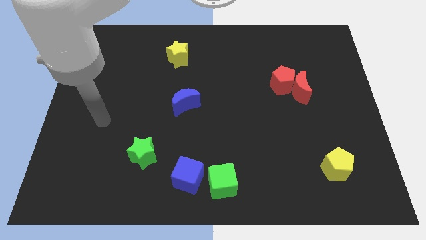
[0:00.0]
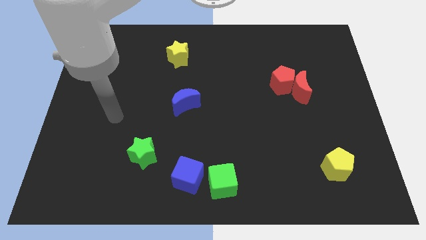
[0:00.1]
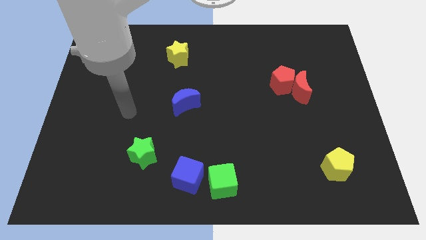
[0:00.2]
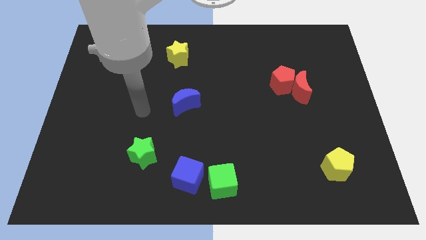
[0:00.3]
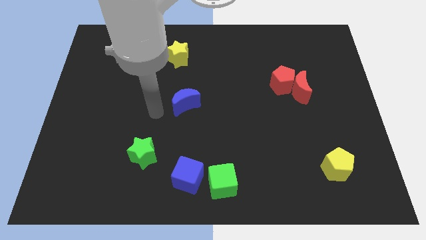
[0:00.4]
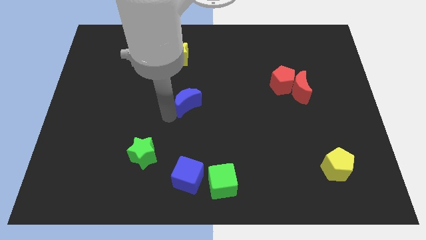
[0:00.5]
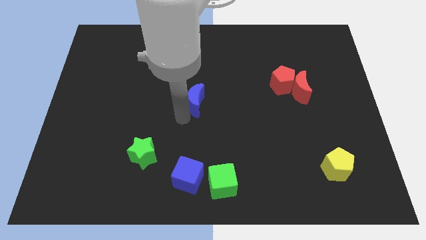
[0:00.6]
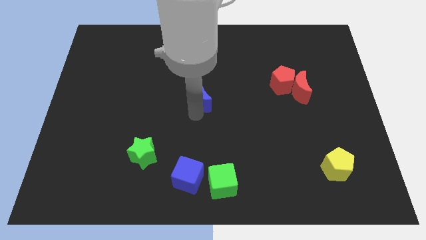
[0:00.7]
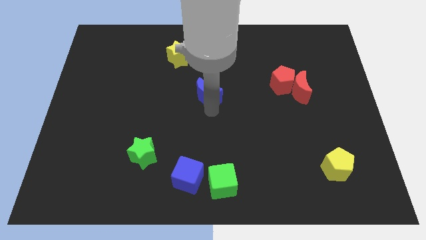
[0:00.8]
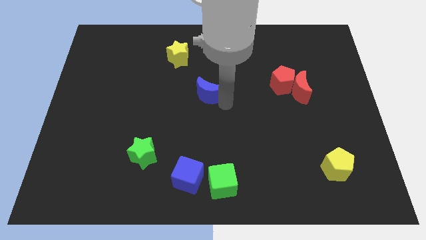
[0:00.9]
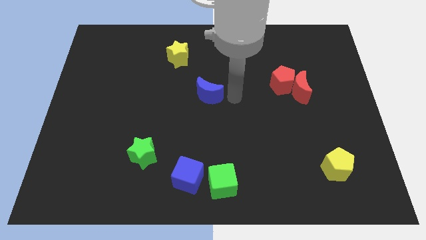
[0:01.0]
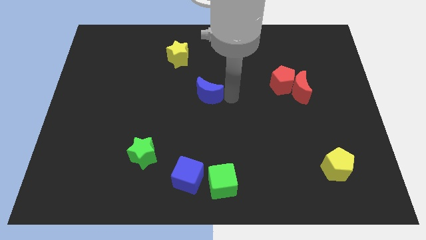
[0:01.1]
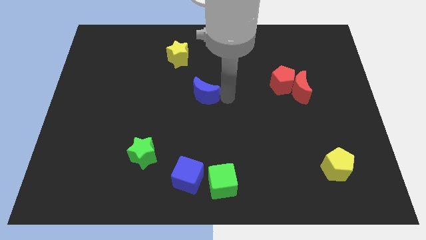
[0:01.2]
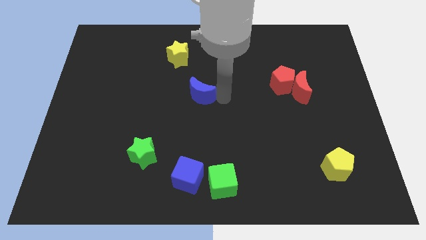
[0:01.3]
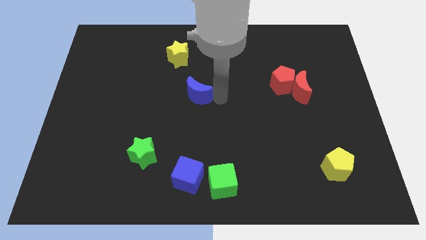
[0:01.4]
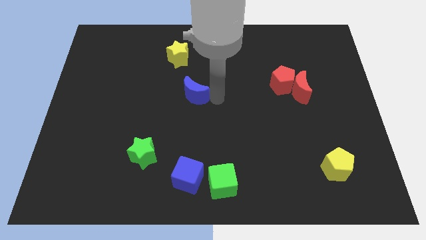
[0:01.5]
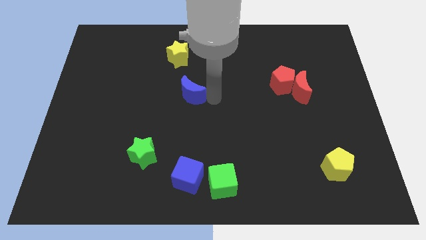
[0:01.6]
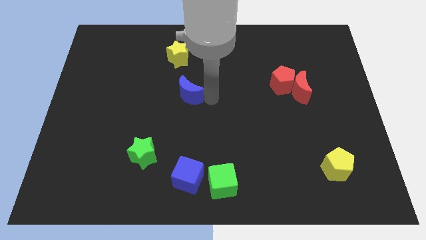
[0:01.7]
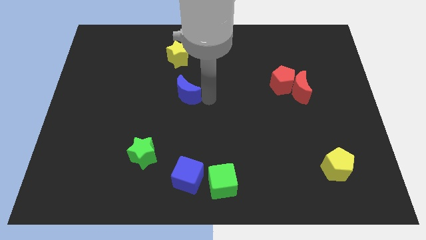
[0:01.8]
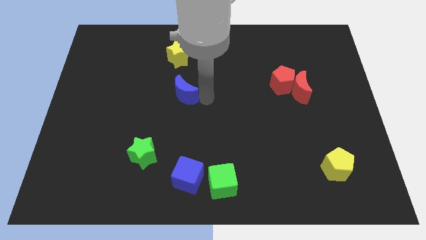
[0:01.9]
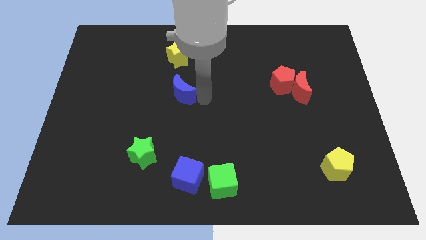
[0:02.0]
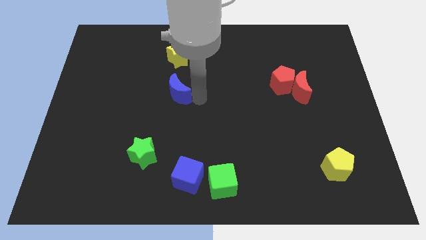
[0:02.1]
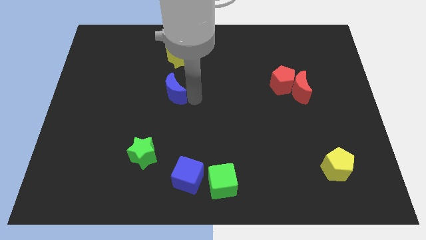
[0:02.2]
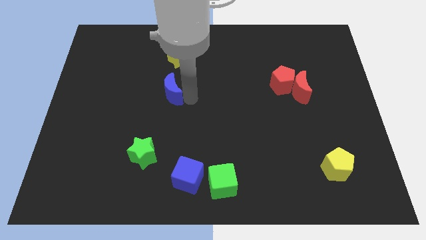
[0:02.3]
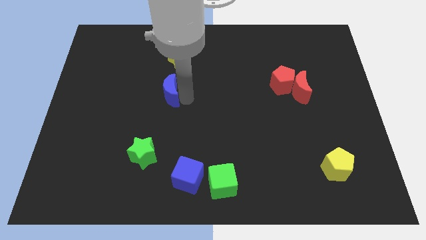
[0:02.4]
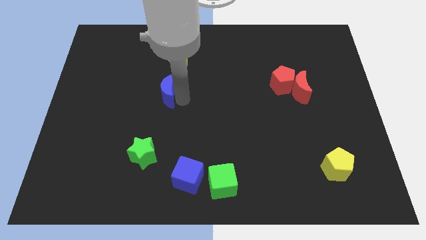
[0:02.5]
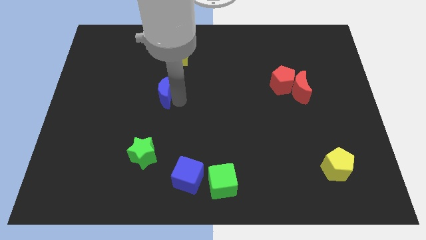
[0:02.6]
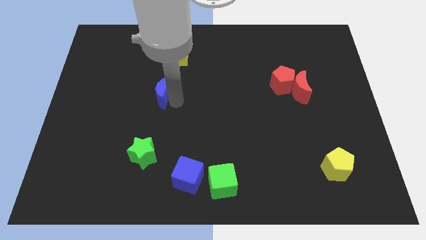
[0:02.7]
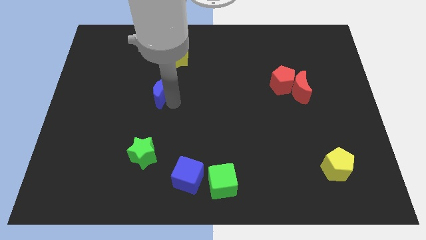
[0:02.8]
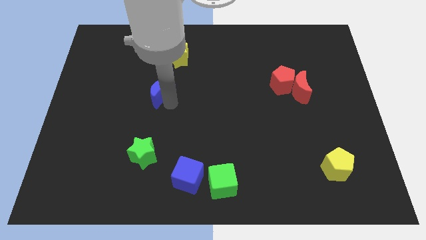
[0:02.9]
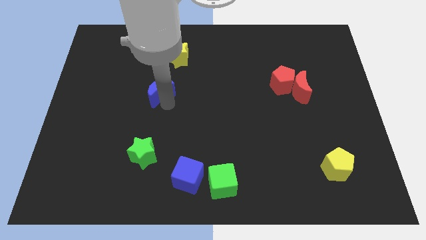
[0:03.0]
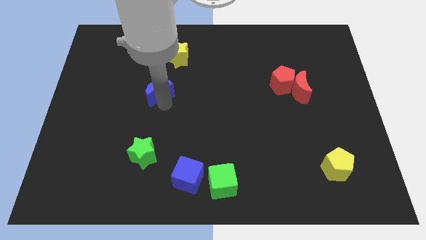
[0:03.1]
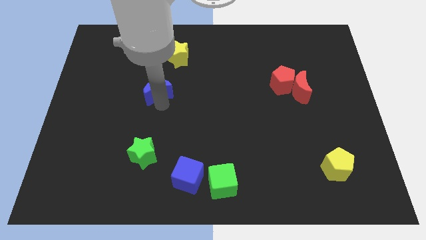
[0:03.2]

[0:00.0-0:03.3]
push the blue moon upwards and left diagonally a little

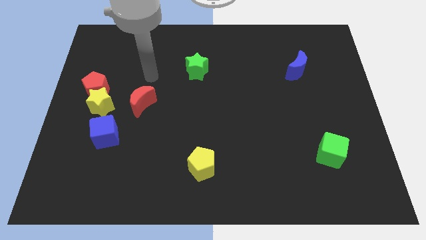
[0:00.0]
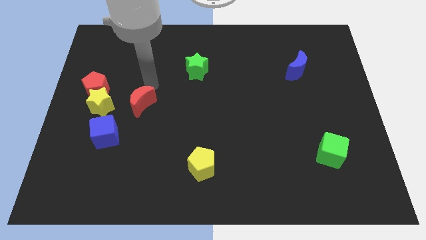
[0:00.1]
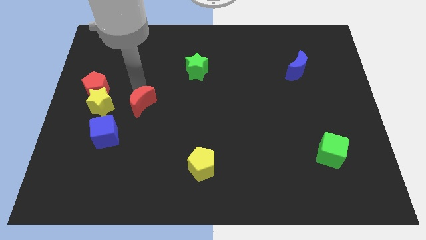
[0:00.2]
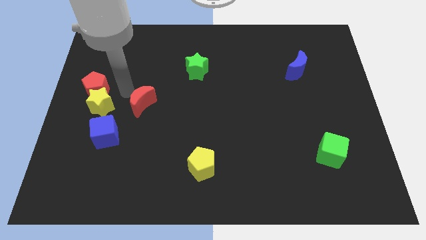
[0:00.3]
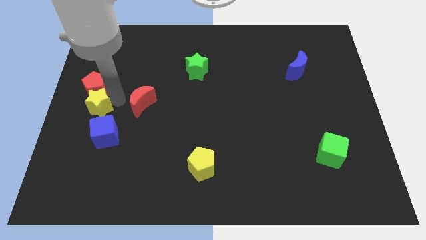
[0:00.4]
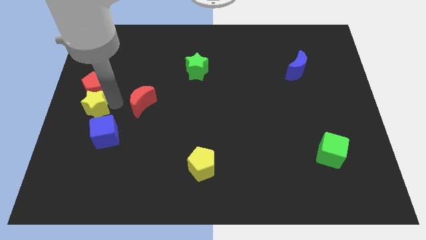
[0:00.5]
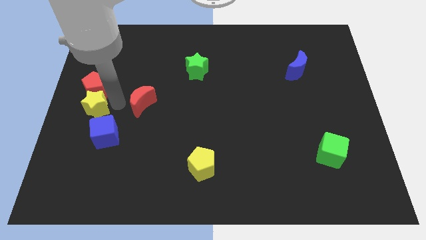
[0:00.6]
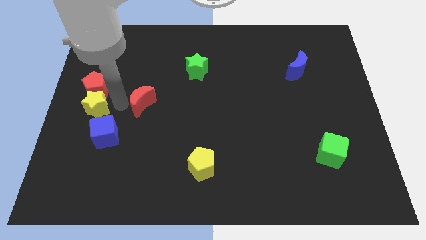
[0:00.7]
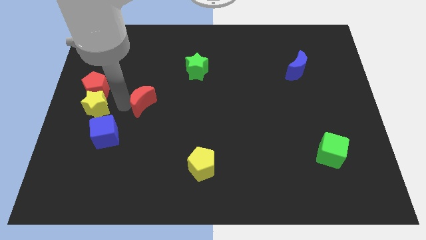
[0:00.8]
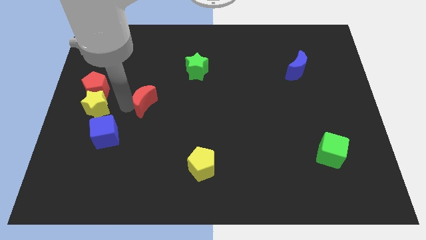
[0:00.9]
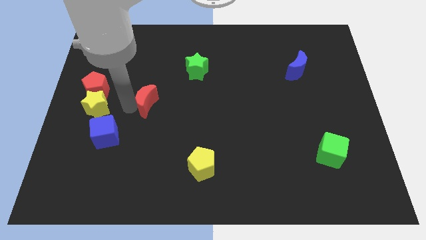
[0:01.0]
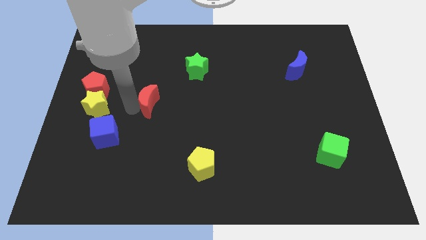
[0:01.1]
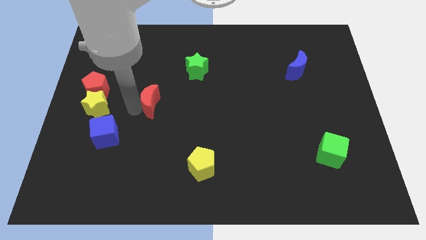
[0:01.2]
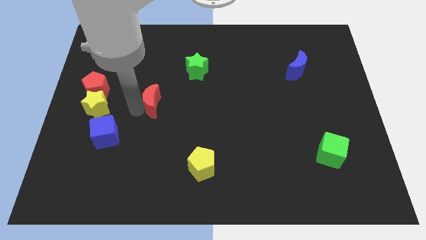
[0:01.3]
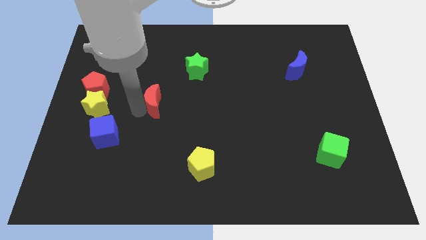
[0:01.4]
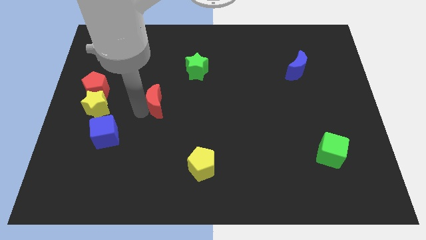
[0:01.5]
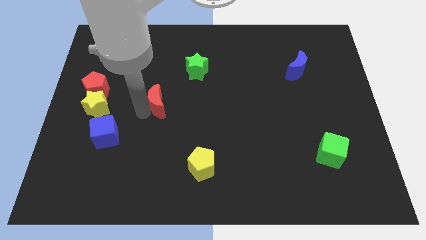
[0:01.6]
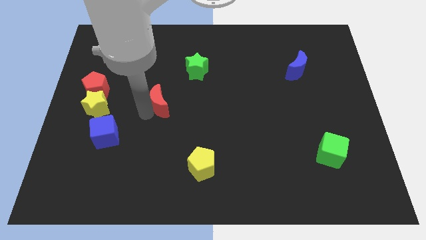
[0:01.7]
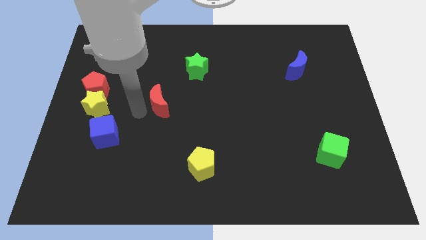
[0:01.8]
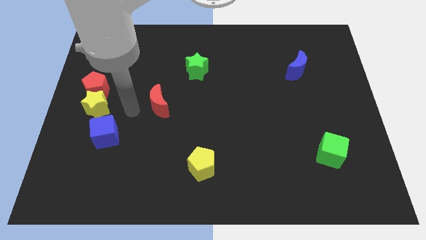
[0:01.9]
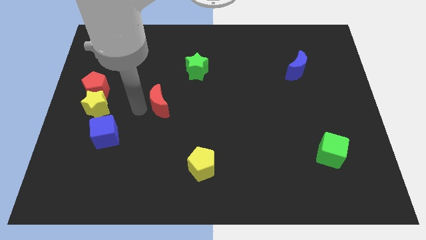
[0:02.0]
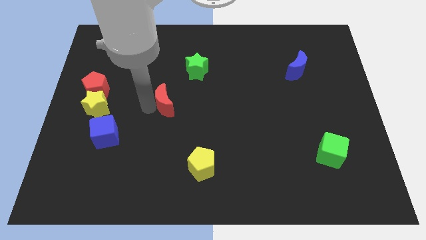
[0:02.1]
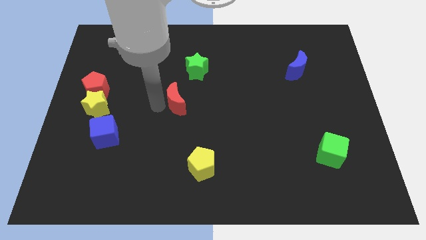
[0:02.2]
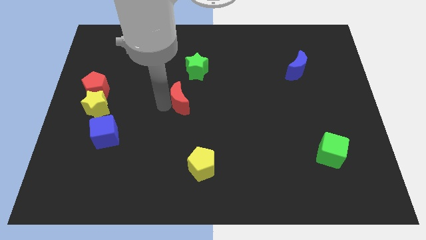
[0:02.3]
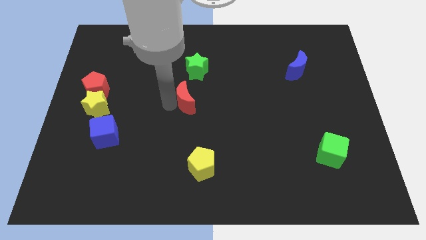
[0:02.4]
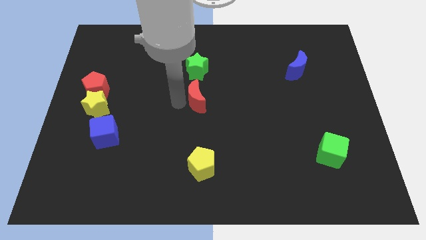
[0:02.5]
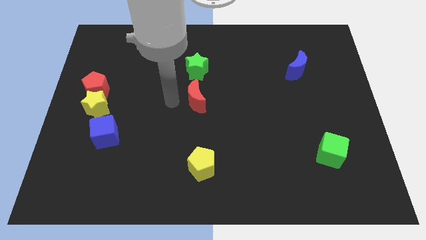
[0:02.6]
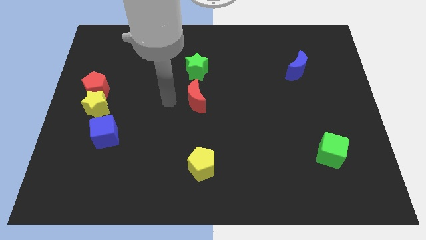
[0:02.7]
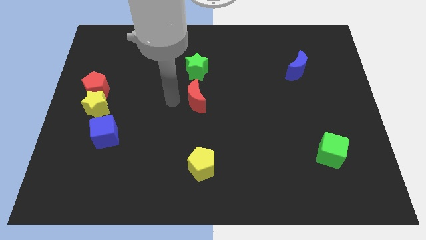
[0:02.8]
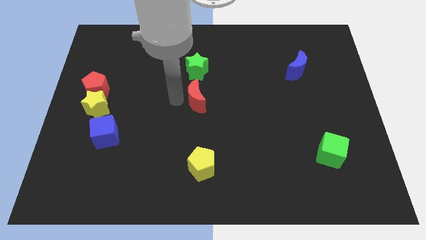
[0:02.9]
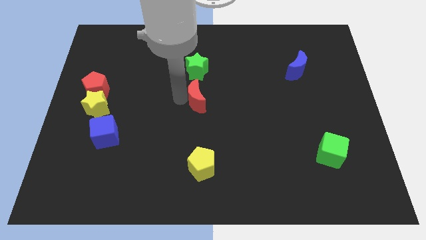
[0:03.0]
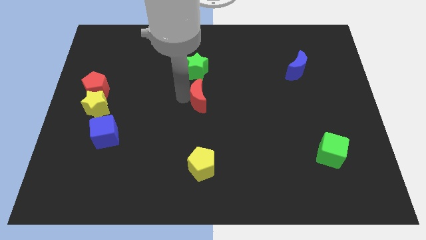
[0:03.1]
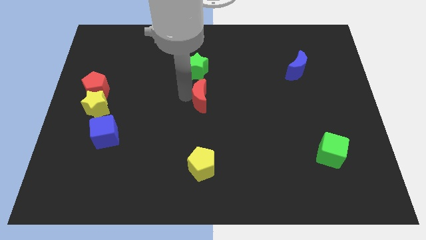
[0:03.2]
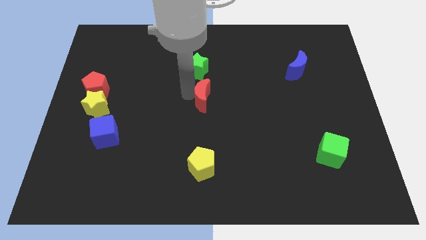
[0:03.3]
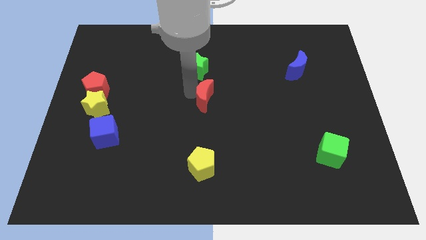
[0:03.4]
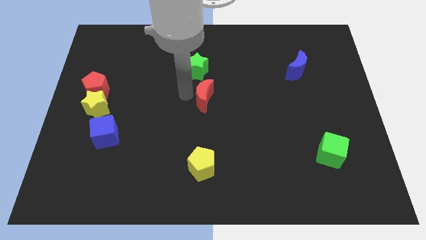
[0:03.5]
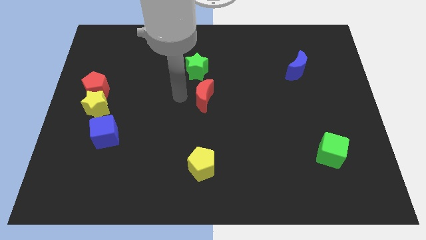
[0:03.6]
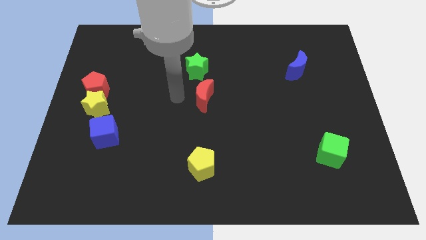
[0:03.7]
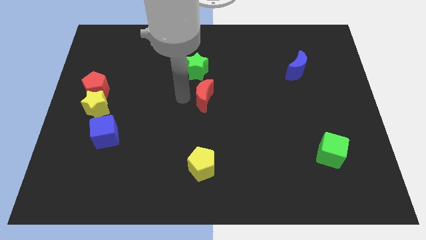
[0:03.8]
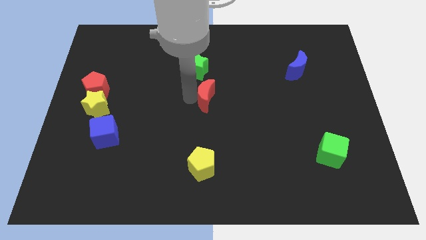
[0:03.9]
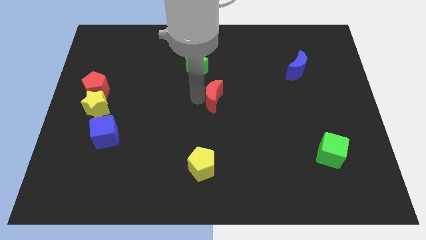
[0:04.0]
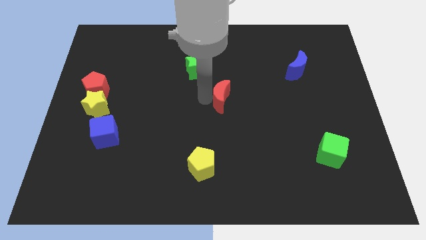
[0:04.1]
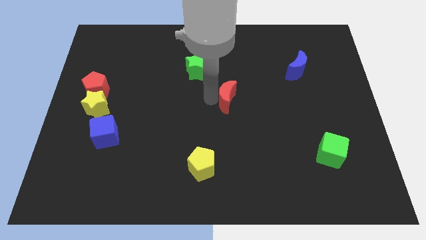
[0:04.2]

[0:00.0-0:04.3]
slide the red moon to the right

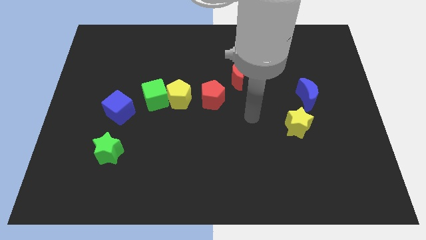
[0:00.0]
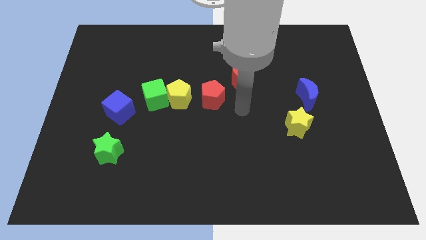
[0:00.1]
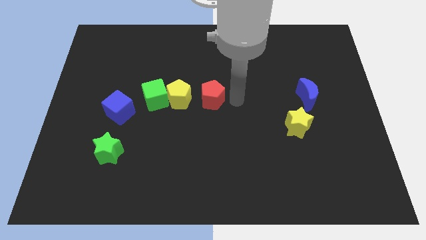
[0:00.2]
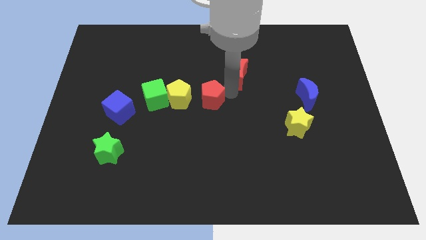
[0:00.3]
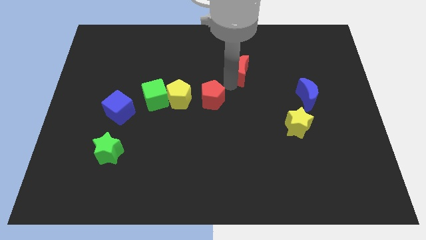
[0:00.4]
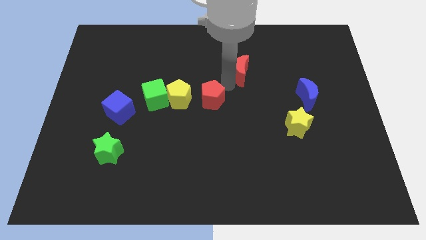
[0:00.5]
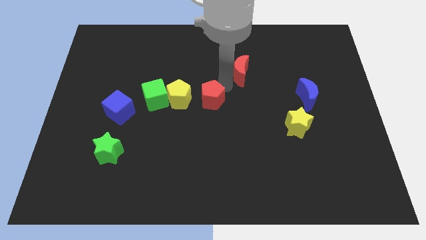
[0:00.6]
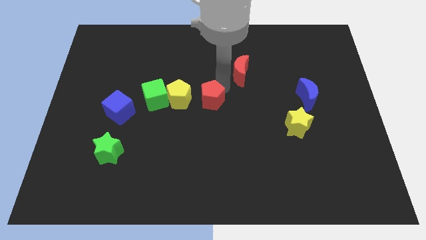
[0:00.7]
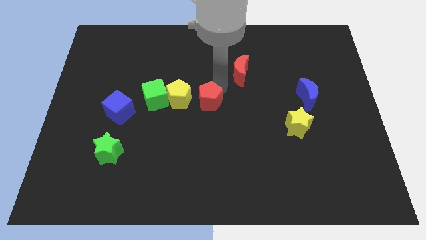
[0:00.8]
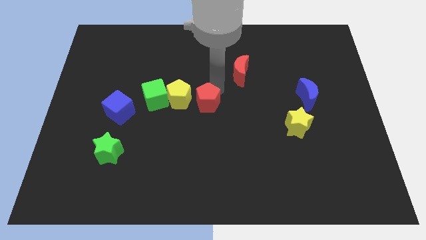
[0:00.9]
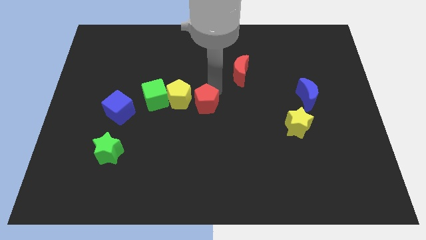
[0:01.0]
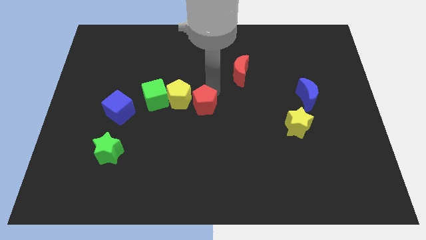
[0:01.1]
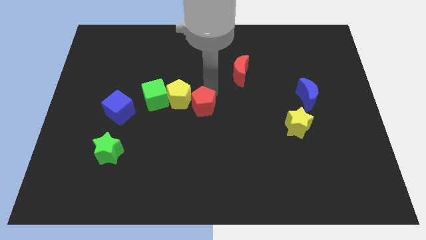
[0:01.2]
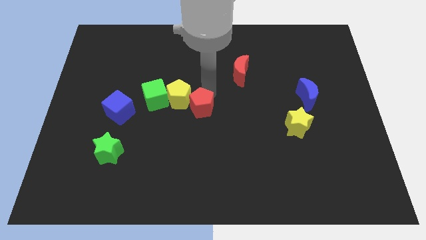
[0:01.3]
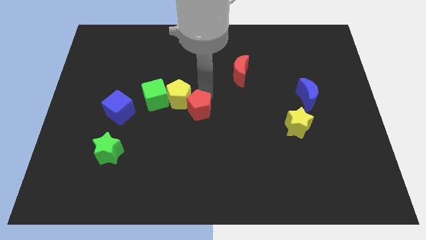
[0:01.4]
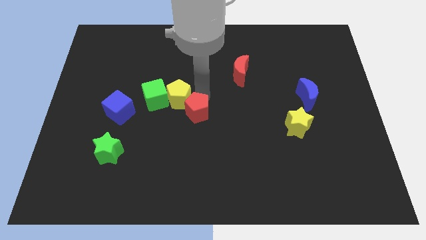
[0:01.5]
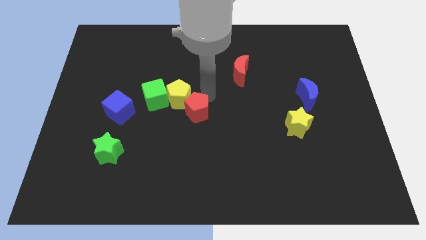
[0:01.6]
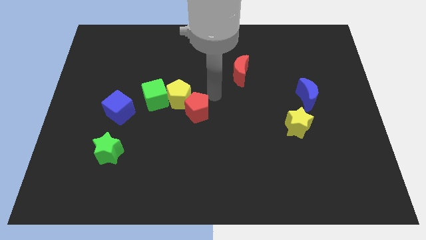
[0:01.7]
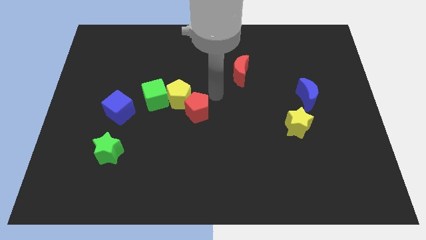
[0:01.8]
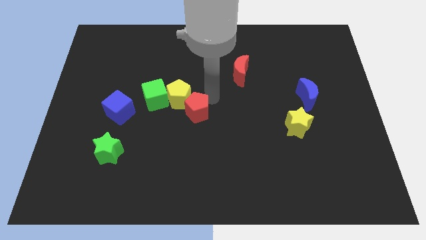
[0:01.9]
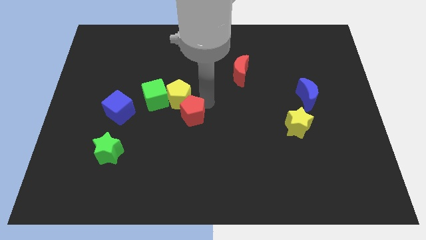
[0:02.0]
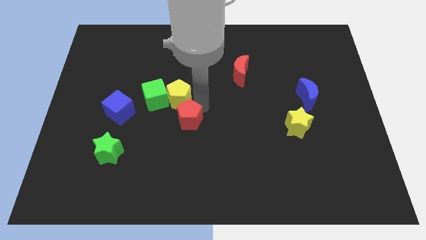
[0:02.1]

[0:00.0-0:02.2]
slightly slide the red pentagon diagonally down and to the left
